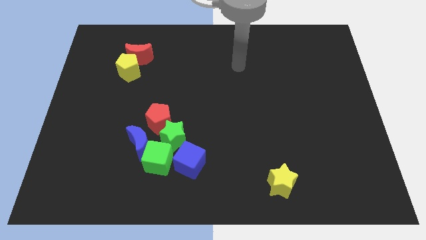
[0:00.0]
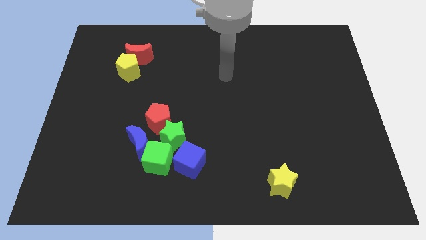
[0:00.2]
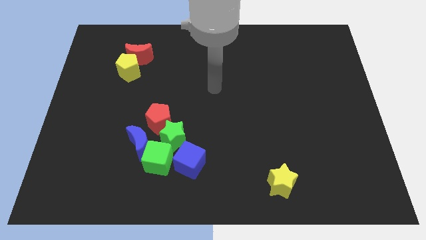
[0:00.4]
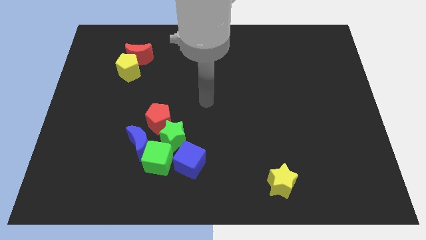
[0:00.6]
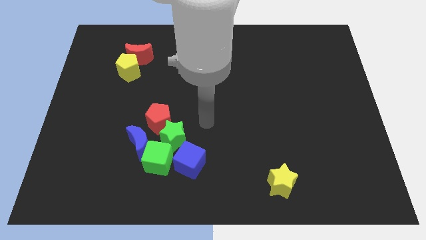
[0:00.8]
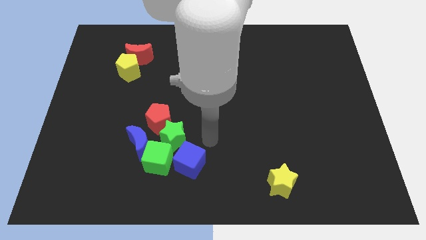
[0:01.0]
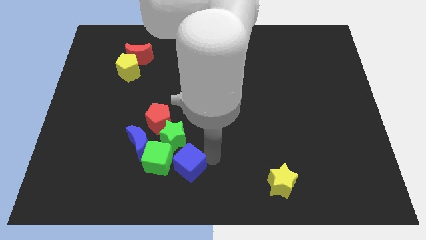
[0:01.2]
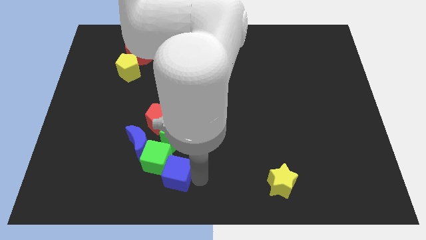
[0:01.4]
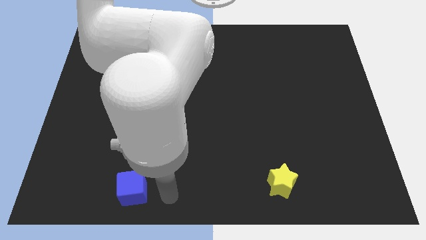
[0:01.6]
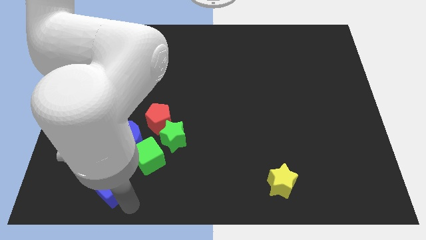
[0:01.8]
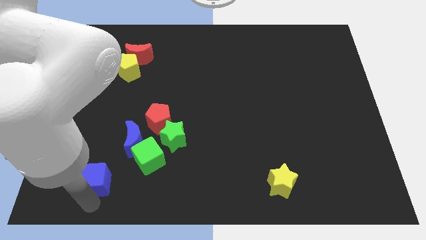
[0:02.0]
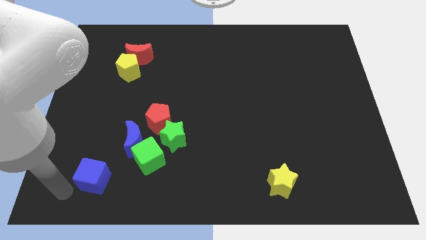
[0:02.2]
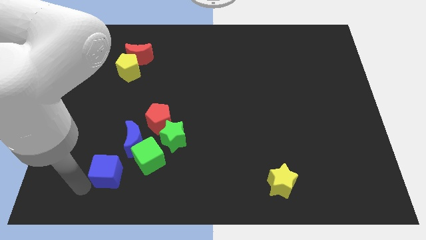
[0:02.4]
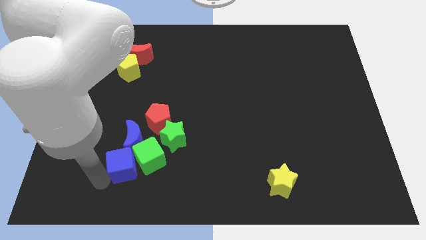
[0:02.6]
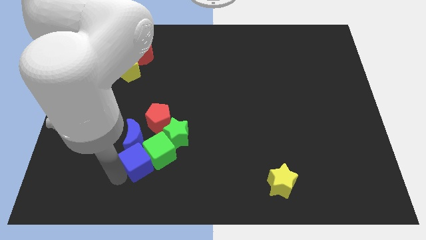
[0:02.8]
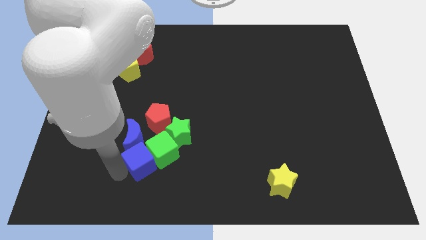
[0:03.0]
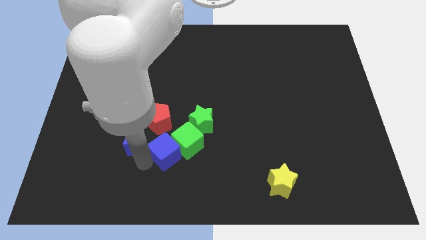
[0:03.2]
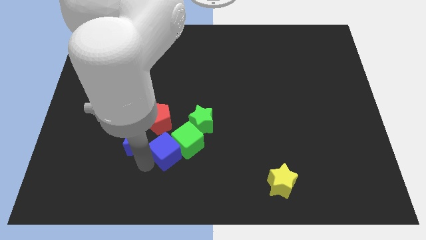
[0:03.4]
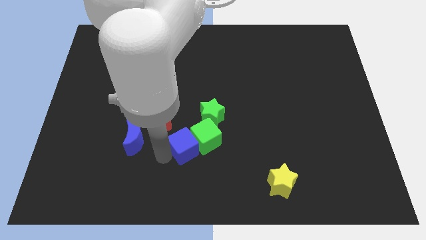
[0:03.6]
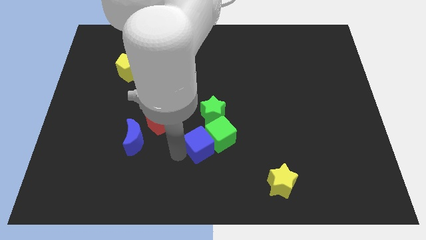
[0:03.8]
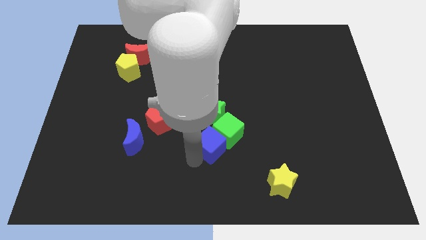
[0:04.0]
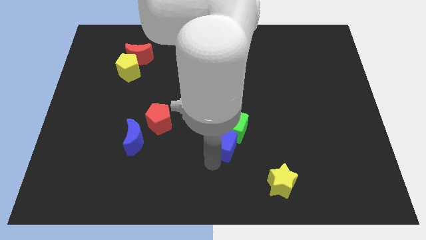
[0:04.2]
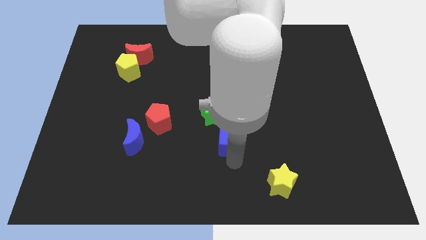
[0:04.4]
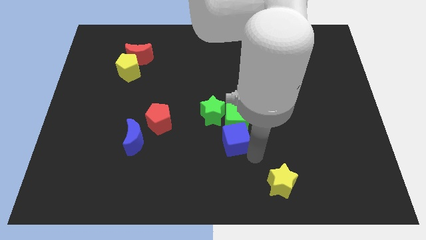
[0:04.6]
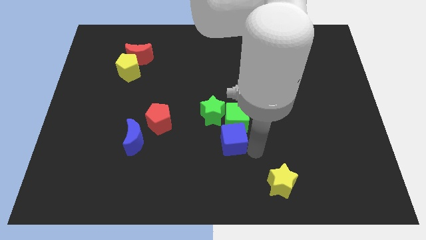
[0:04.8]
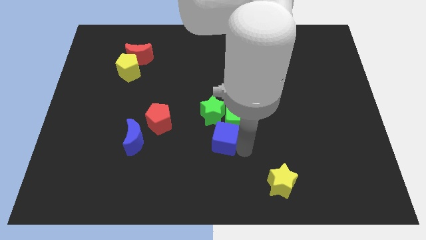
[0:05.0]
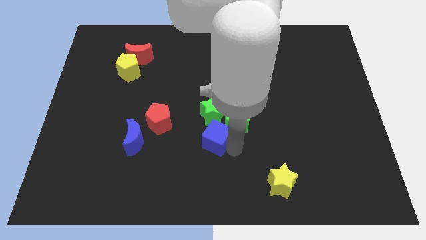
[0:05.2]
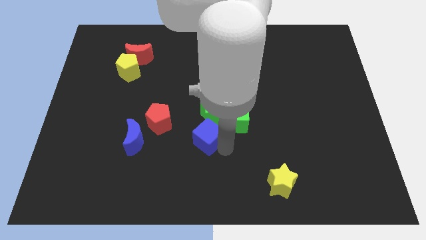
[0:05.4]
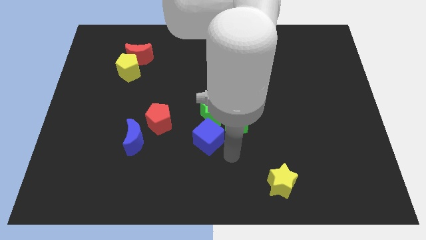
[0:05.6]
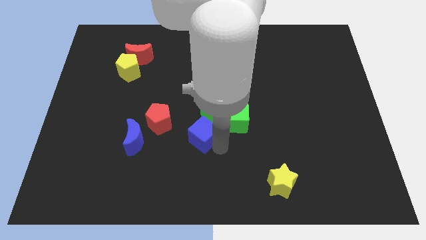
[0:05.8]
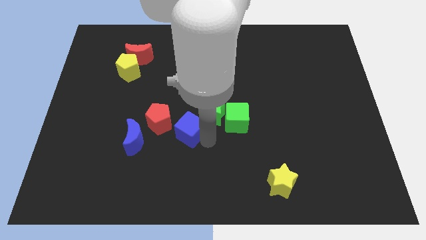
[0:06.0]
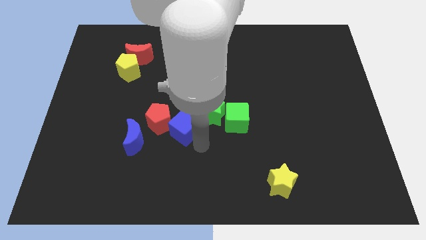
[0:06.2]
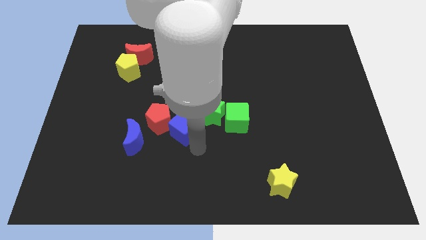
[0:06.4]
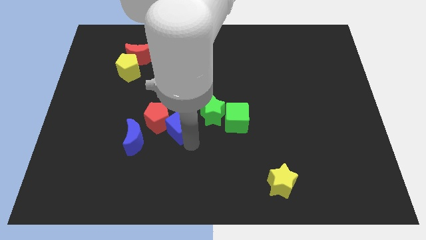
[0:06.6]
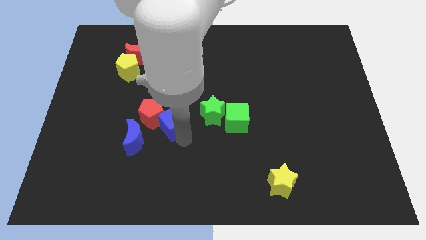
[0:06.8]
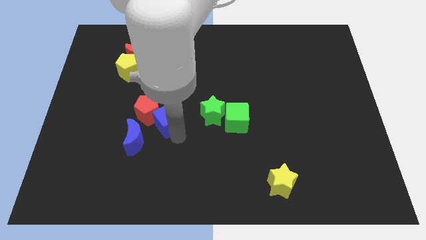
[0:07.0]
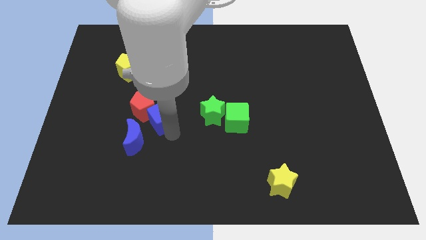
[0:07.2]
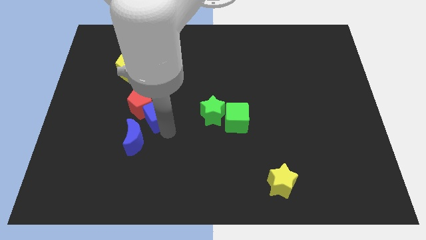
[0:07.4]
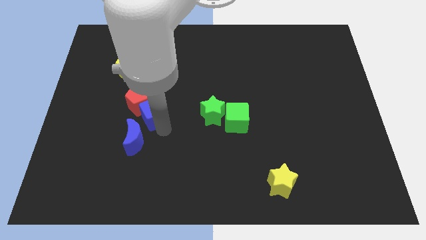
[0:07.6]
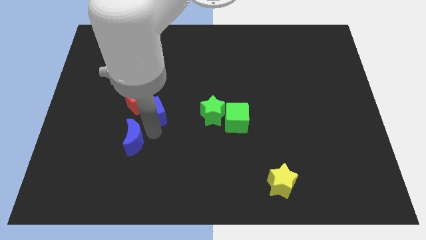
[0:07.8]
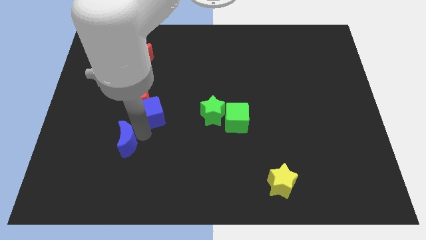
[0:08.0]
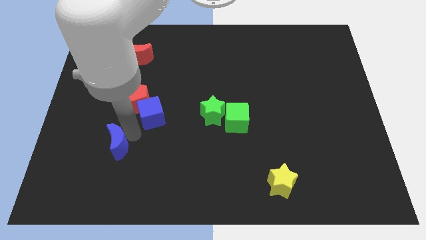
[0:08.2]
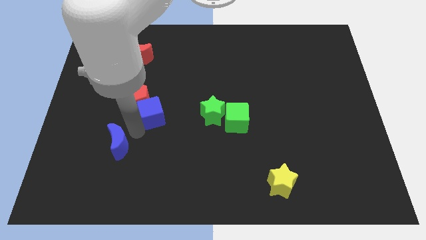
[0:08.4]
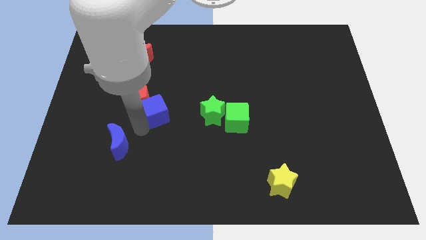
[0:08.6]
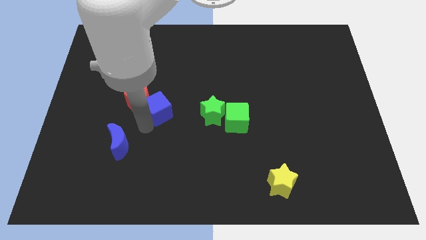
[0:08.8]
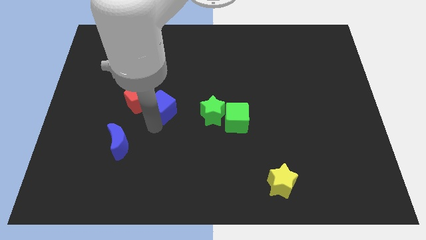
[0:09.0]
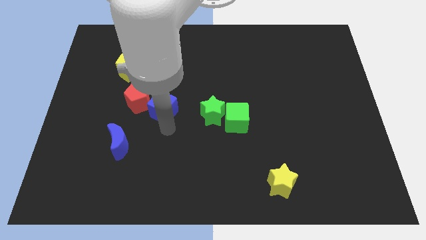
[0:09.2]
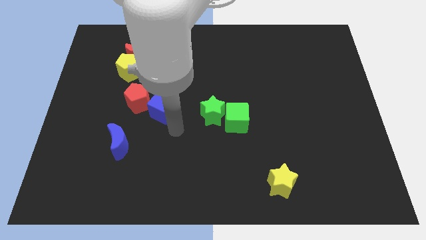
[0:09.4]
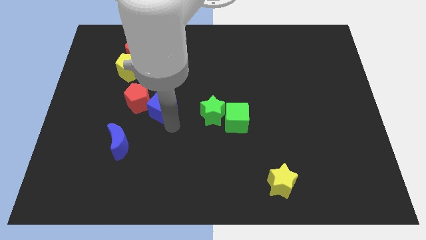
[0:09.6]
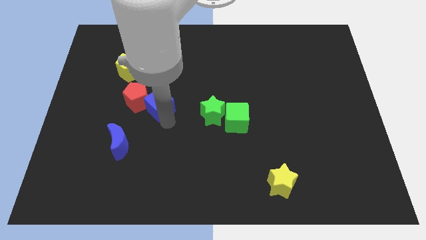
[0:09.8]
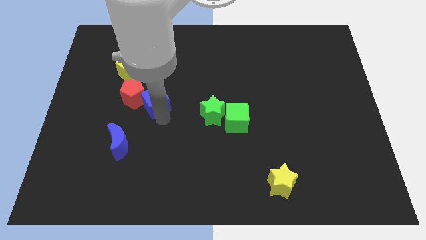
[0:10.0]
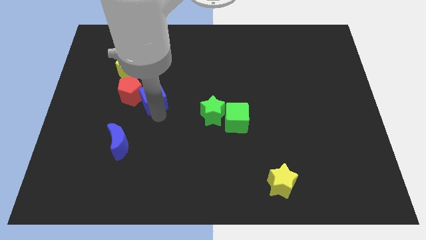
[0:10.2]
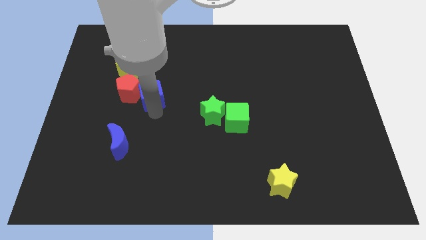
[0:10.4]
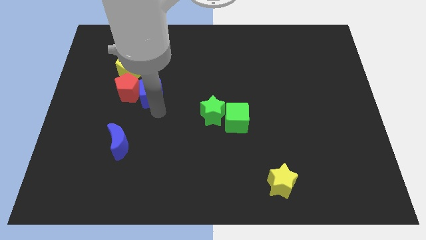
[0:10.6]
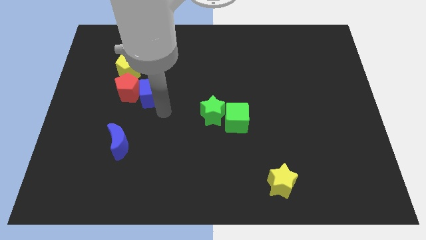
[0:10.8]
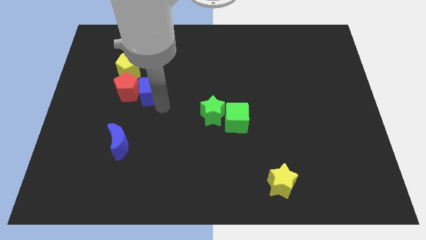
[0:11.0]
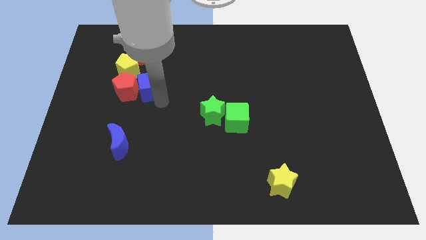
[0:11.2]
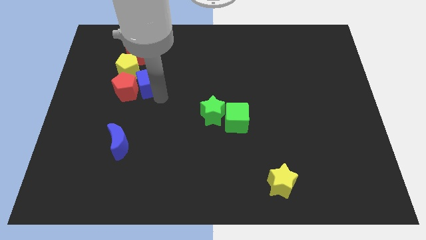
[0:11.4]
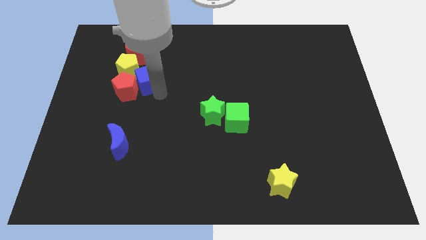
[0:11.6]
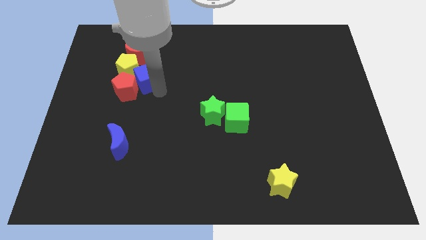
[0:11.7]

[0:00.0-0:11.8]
put the blue cube close to the yellow pentagon

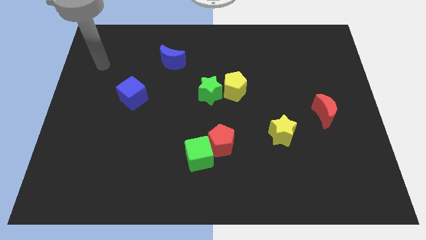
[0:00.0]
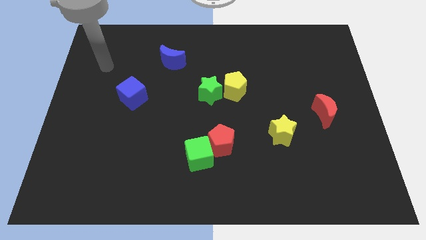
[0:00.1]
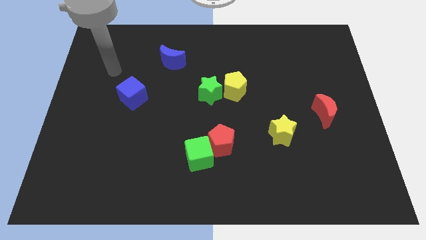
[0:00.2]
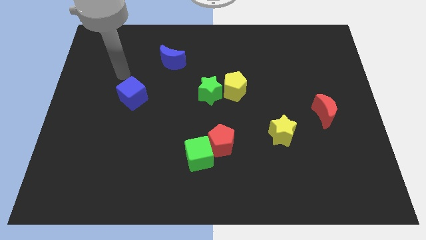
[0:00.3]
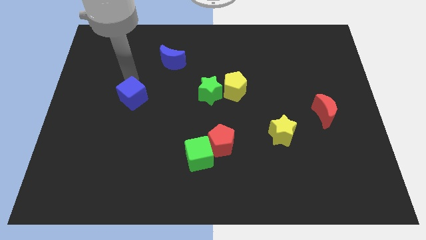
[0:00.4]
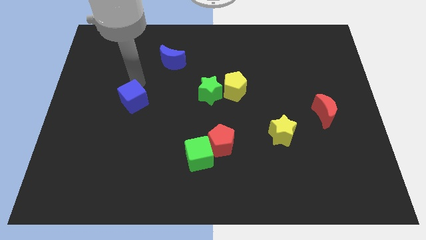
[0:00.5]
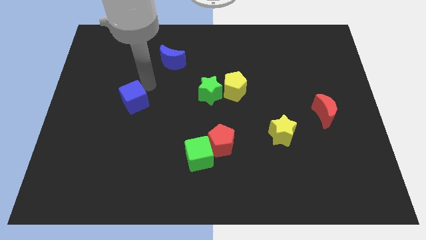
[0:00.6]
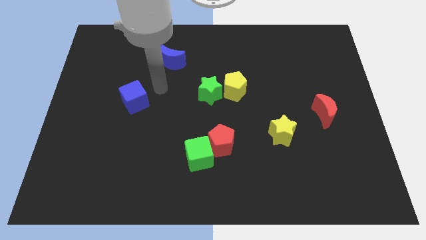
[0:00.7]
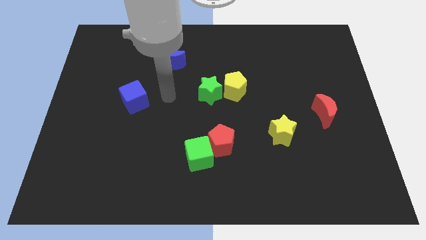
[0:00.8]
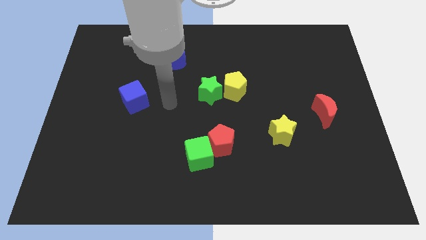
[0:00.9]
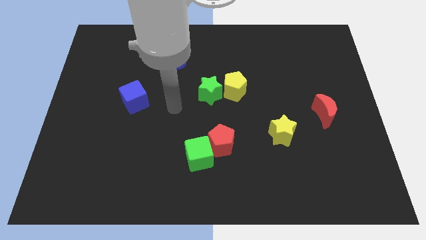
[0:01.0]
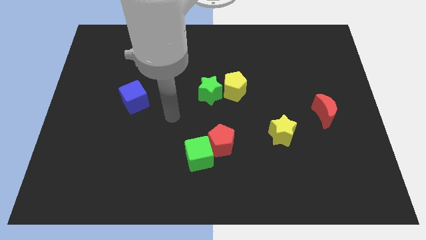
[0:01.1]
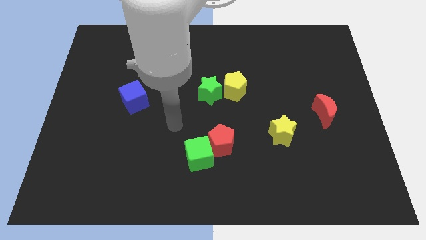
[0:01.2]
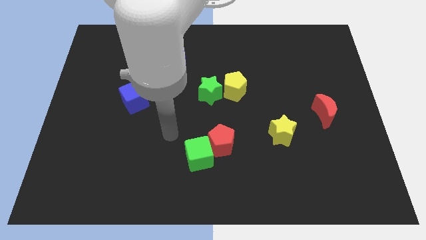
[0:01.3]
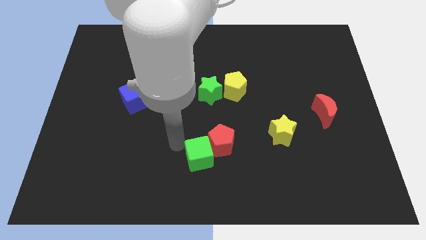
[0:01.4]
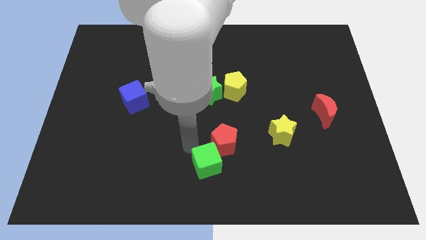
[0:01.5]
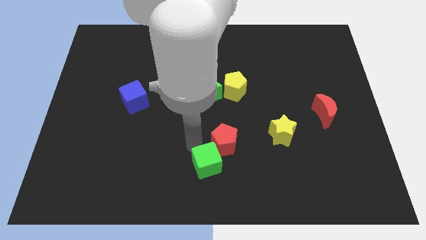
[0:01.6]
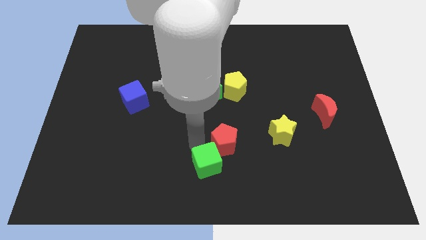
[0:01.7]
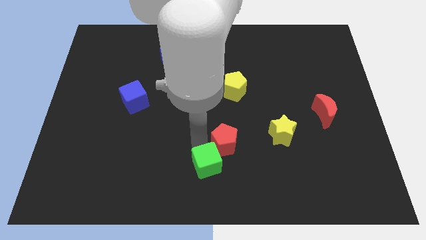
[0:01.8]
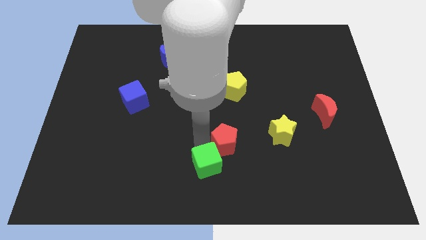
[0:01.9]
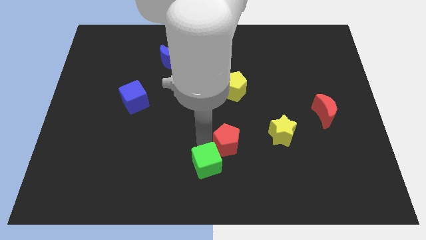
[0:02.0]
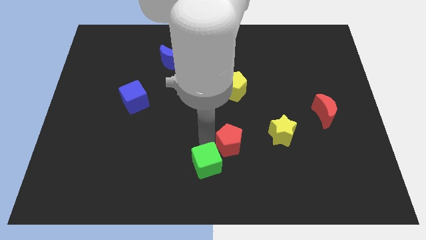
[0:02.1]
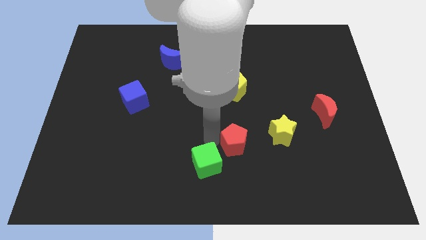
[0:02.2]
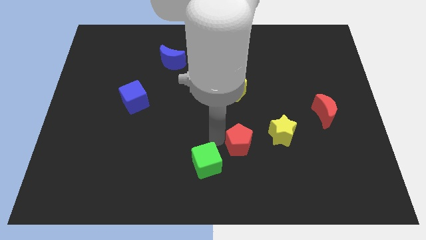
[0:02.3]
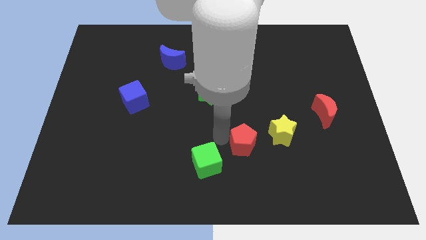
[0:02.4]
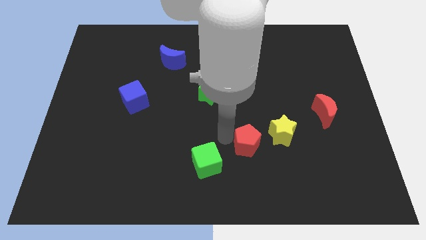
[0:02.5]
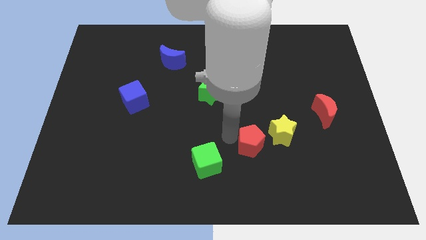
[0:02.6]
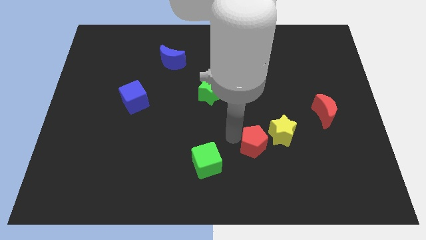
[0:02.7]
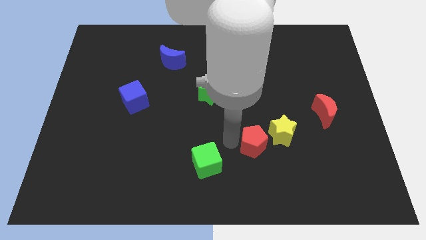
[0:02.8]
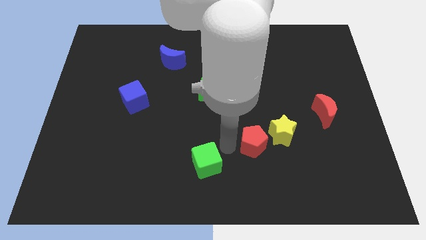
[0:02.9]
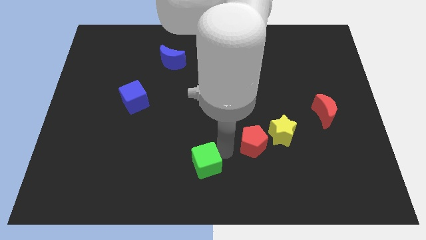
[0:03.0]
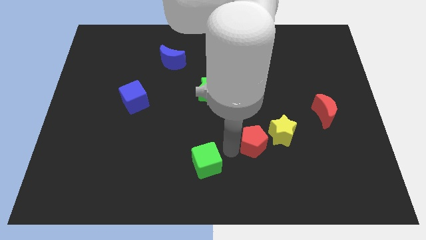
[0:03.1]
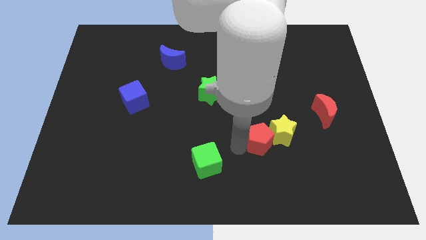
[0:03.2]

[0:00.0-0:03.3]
put the red pentagon next to the yellow star
